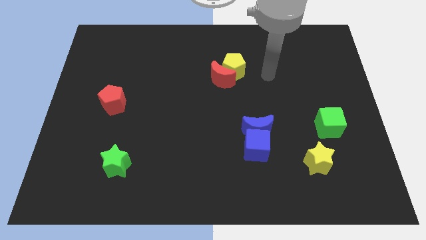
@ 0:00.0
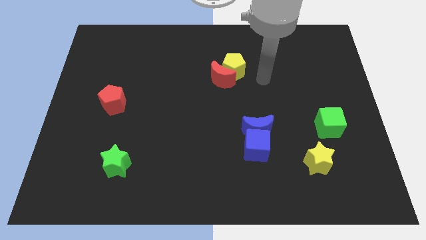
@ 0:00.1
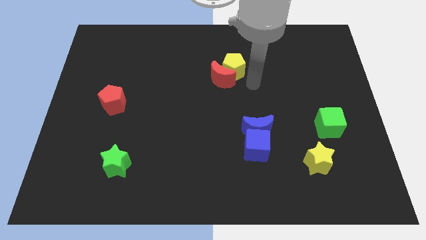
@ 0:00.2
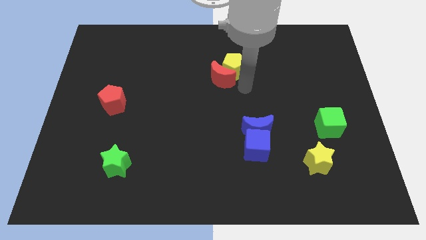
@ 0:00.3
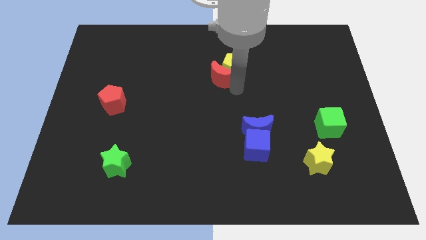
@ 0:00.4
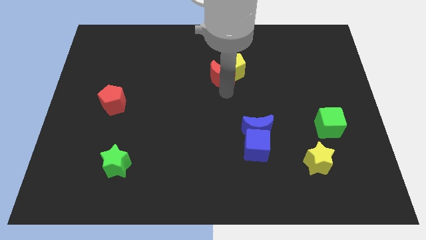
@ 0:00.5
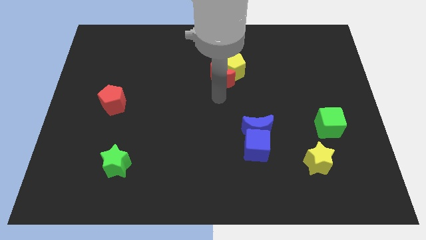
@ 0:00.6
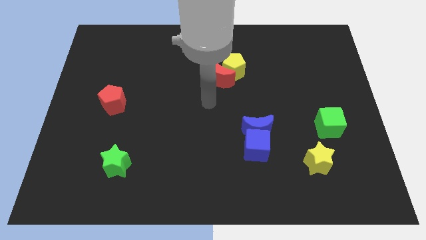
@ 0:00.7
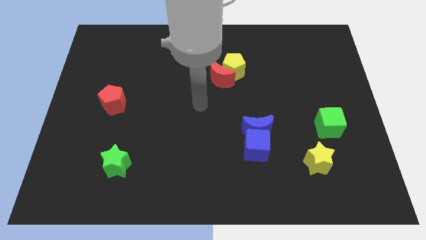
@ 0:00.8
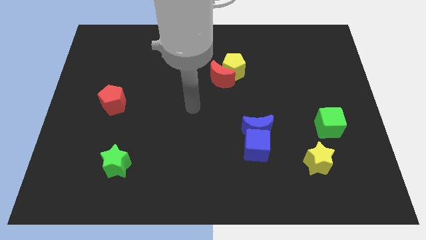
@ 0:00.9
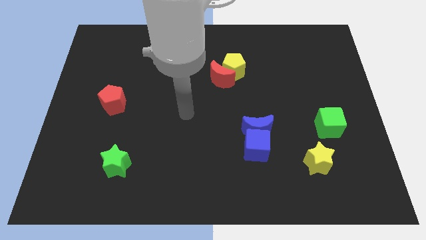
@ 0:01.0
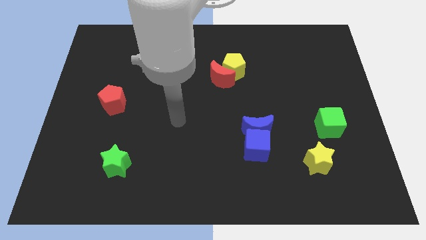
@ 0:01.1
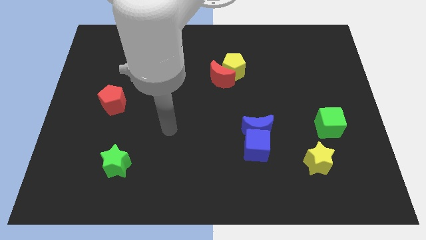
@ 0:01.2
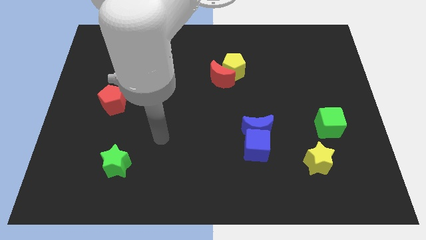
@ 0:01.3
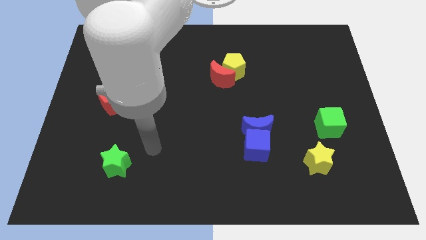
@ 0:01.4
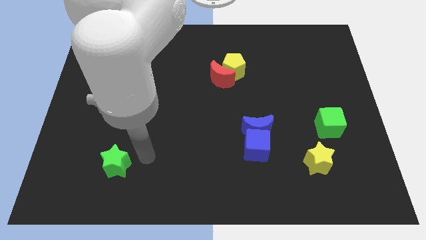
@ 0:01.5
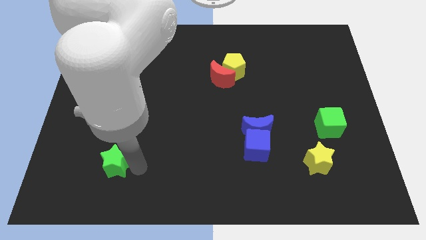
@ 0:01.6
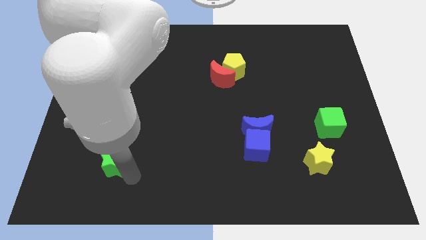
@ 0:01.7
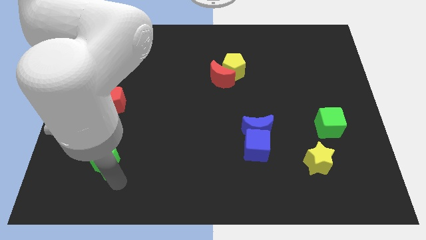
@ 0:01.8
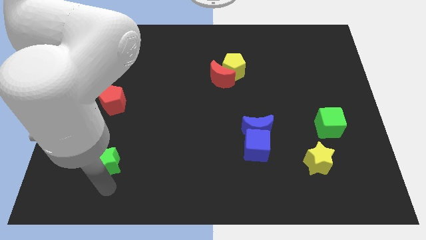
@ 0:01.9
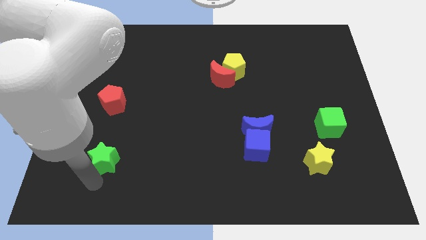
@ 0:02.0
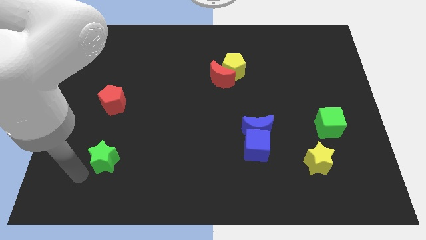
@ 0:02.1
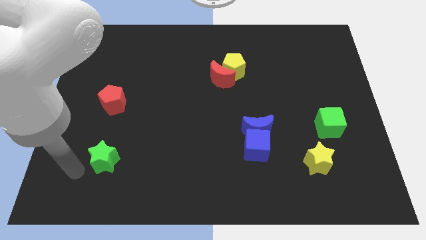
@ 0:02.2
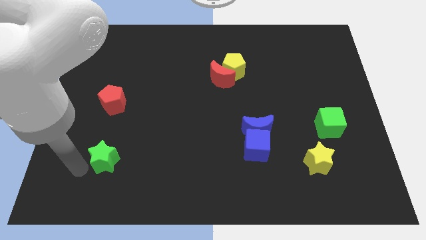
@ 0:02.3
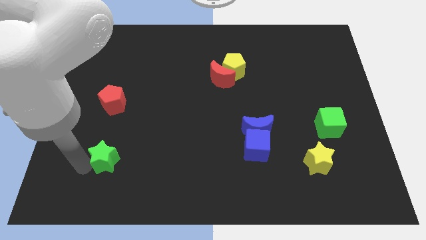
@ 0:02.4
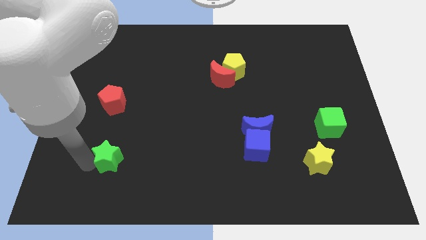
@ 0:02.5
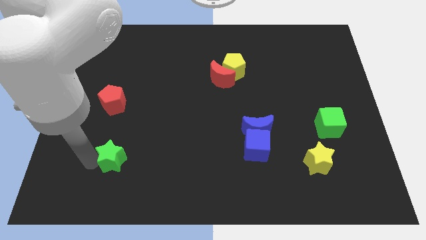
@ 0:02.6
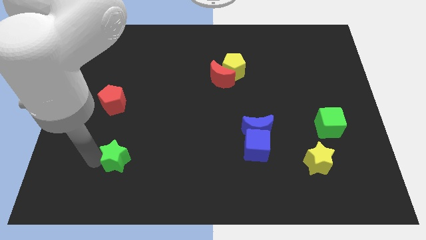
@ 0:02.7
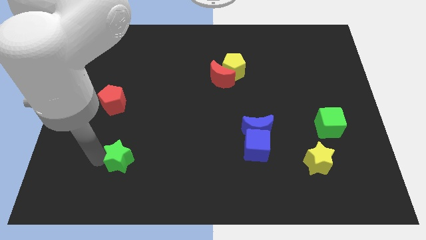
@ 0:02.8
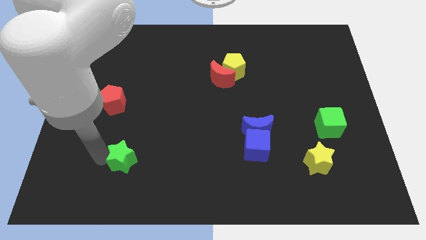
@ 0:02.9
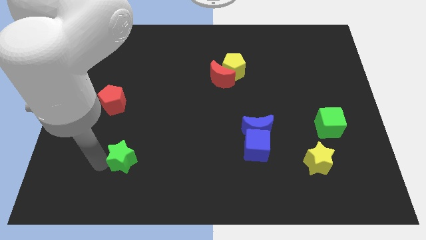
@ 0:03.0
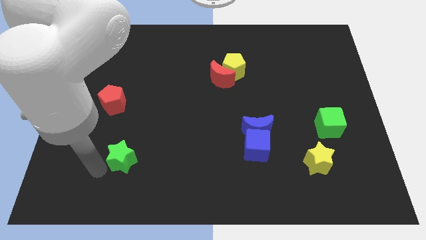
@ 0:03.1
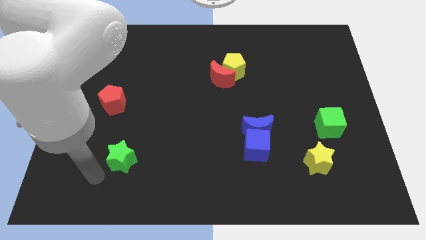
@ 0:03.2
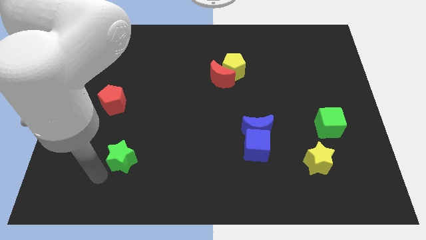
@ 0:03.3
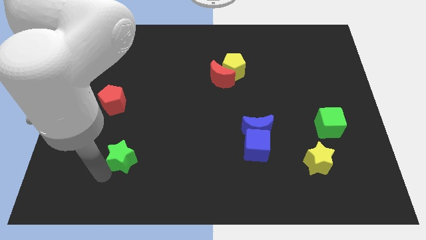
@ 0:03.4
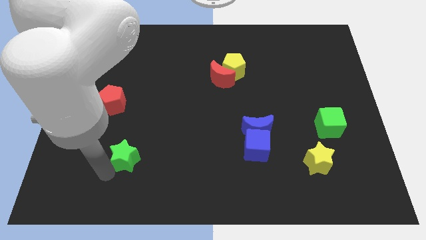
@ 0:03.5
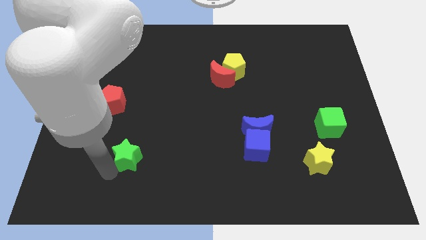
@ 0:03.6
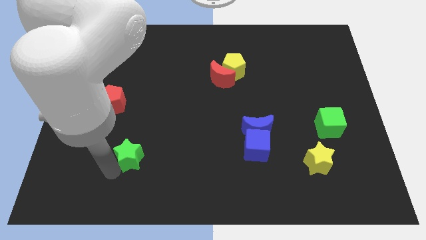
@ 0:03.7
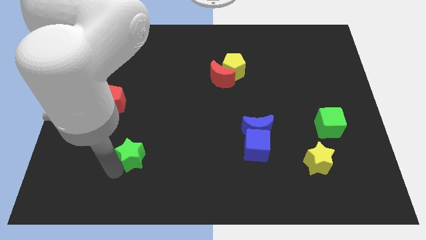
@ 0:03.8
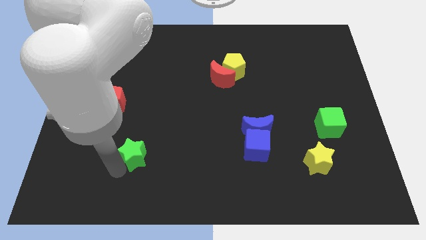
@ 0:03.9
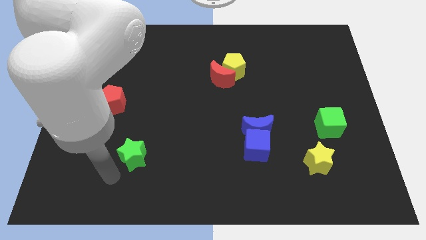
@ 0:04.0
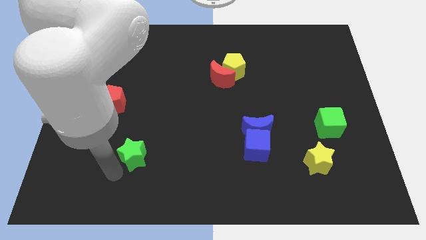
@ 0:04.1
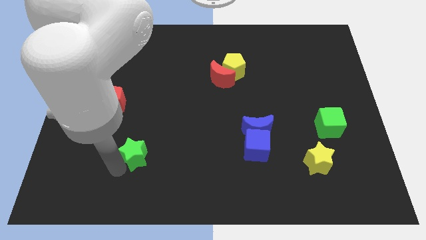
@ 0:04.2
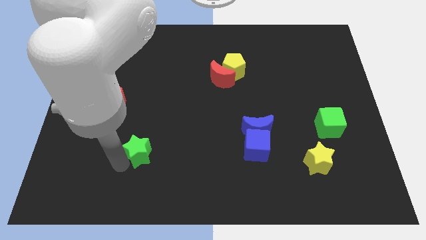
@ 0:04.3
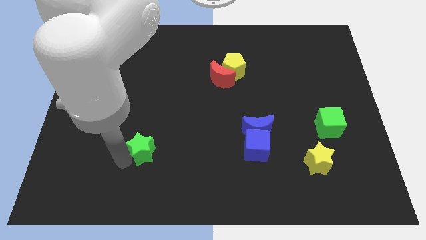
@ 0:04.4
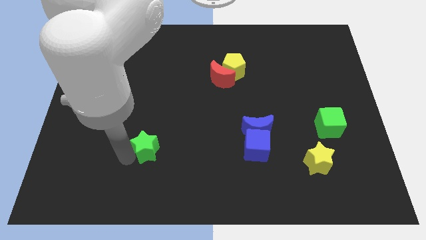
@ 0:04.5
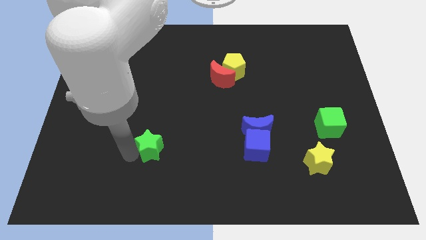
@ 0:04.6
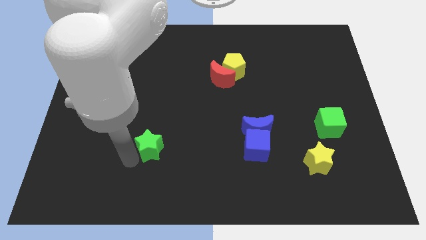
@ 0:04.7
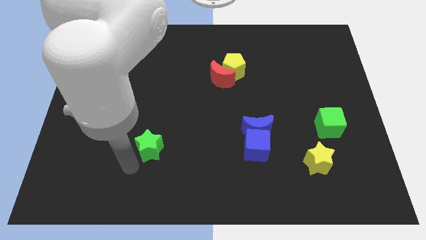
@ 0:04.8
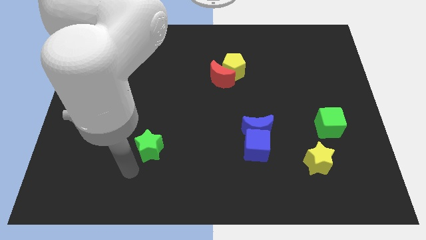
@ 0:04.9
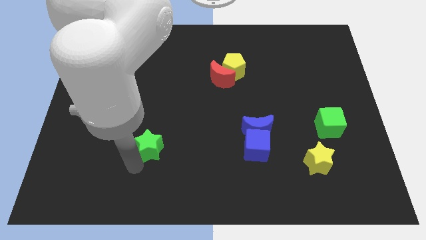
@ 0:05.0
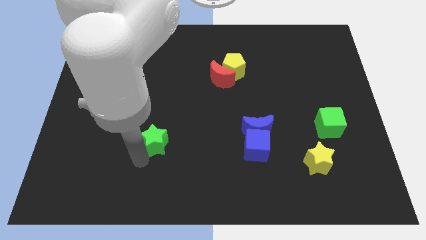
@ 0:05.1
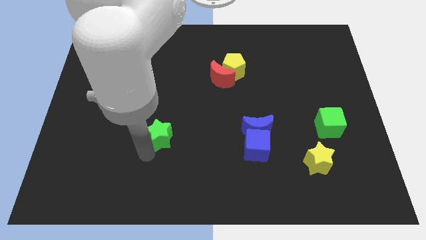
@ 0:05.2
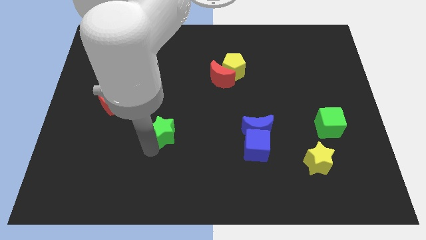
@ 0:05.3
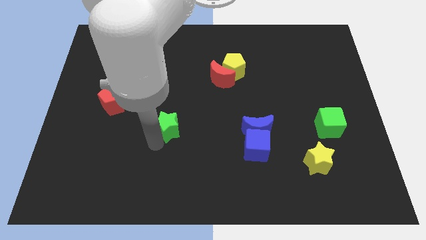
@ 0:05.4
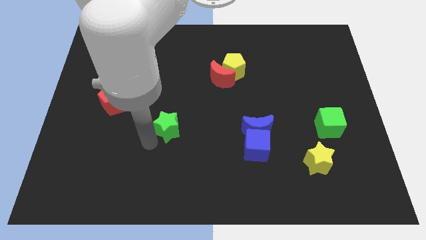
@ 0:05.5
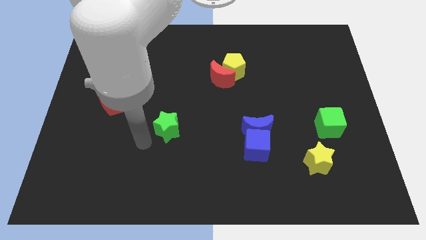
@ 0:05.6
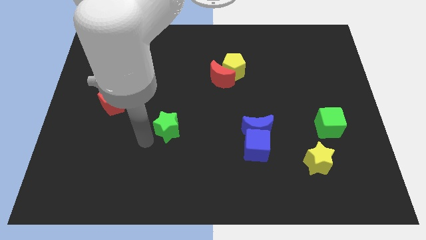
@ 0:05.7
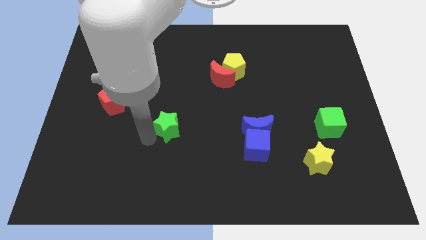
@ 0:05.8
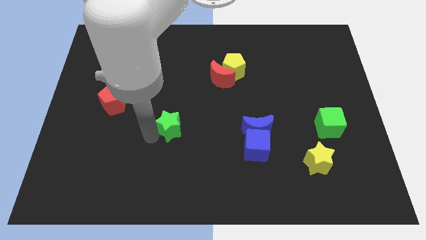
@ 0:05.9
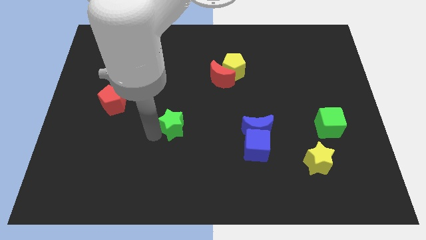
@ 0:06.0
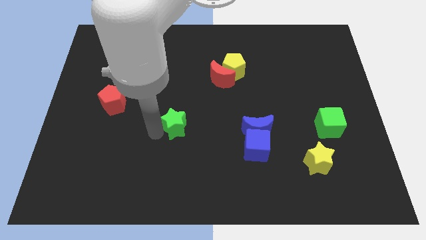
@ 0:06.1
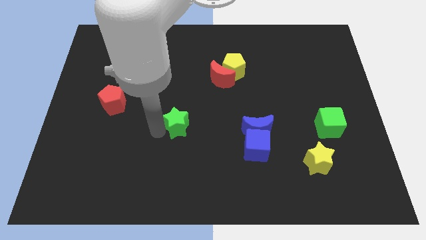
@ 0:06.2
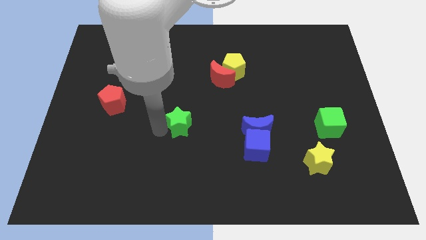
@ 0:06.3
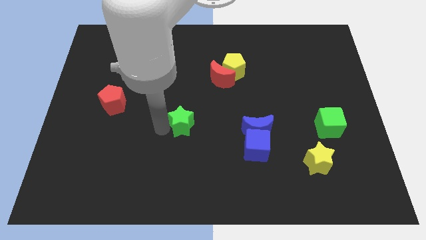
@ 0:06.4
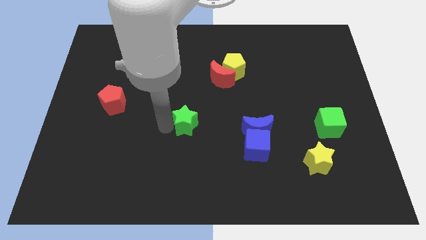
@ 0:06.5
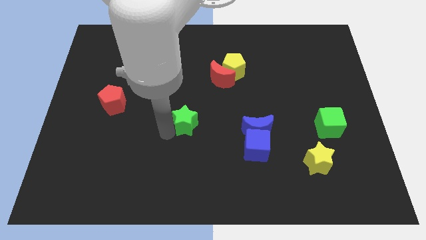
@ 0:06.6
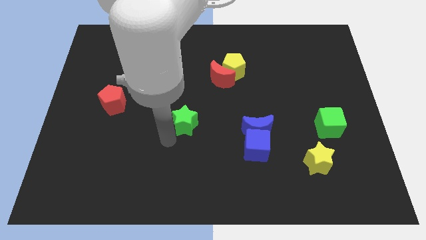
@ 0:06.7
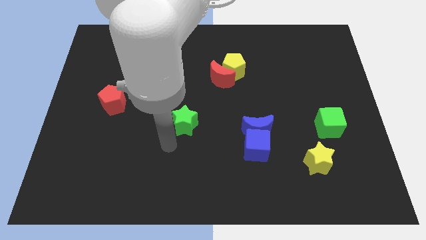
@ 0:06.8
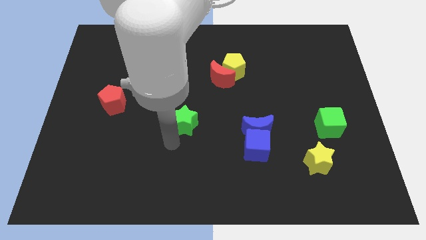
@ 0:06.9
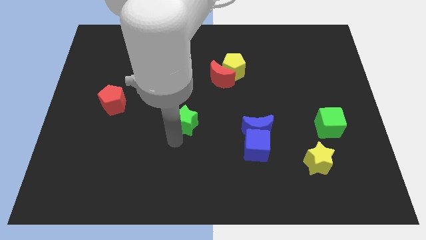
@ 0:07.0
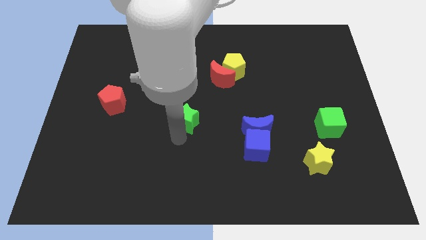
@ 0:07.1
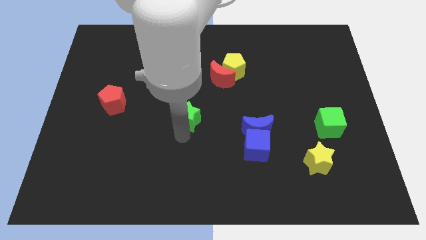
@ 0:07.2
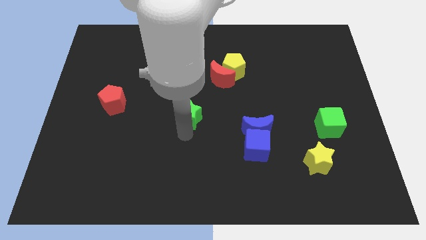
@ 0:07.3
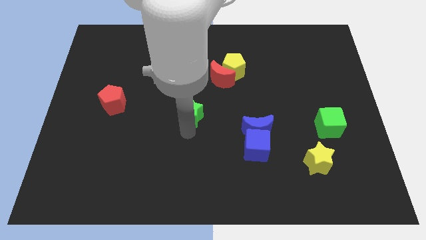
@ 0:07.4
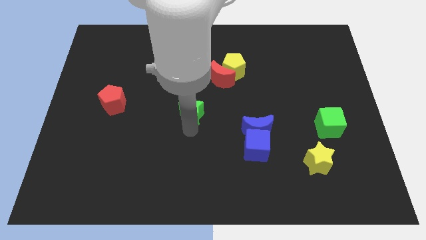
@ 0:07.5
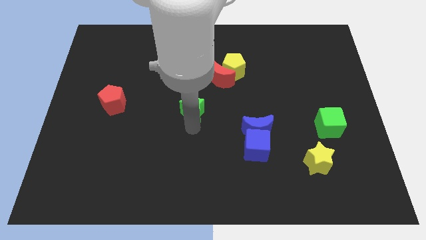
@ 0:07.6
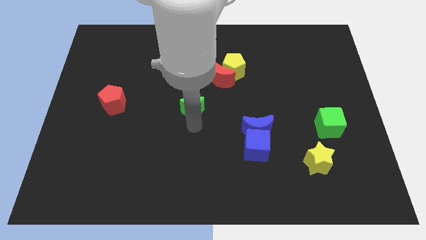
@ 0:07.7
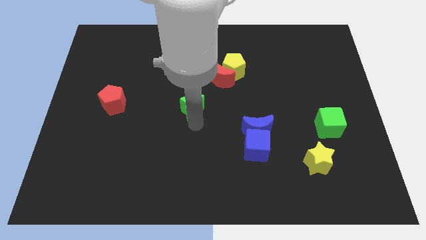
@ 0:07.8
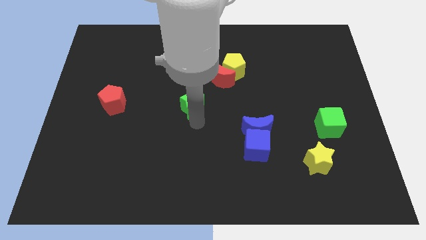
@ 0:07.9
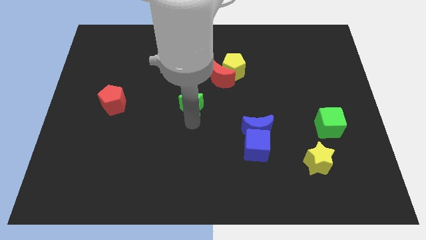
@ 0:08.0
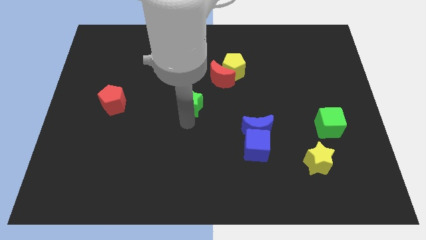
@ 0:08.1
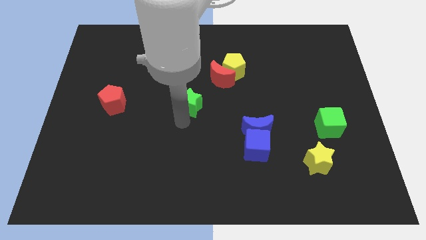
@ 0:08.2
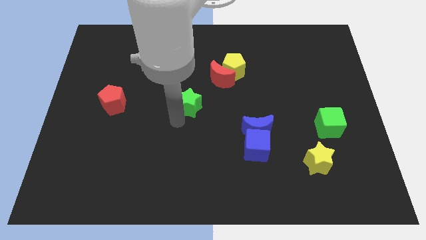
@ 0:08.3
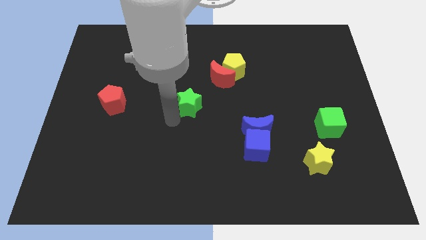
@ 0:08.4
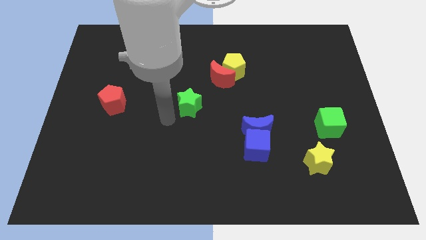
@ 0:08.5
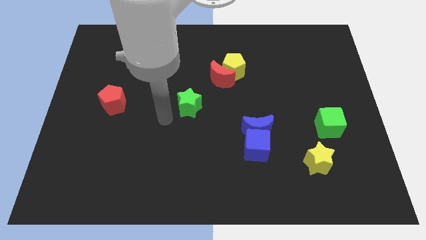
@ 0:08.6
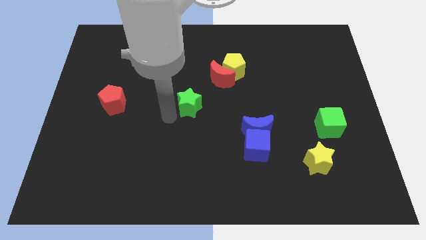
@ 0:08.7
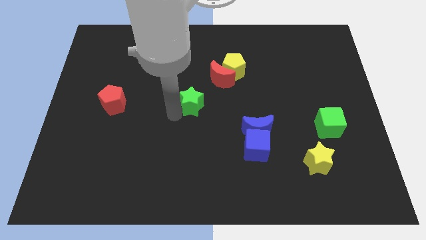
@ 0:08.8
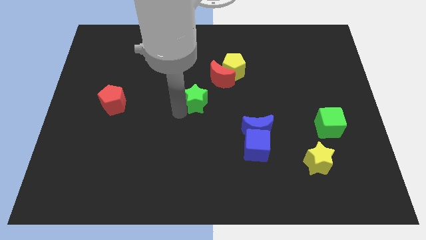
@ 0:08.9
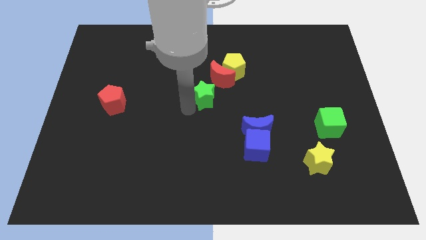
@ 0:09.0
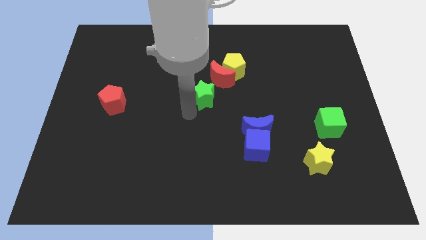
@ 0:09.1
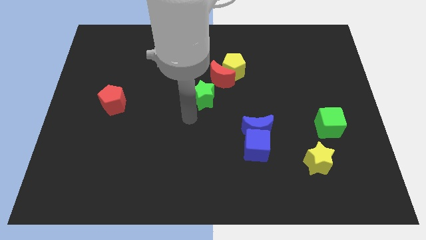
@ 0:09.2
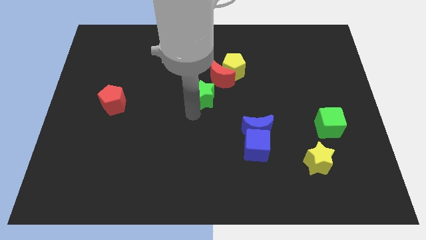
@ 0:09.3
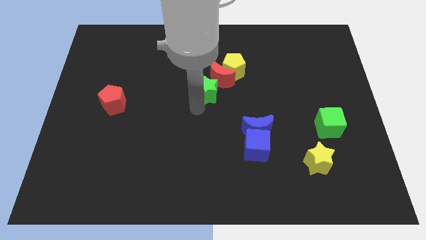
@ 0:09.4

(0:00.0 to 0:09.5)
slide the green star close to the red moon
